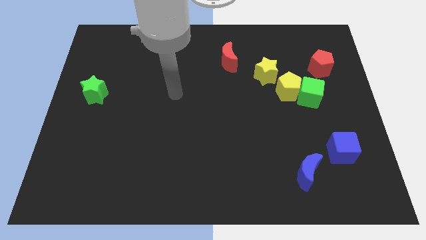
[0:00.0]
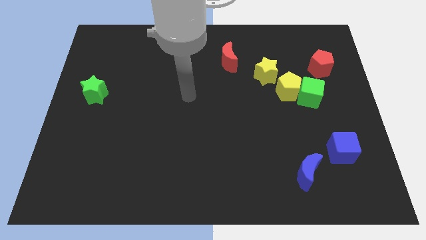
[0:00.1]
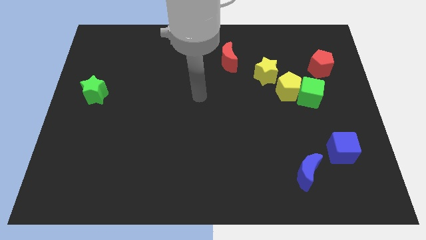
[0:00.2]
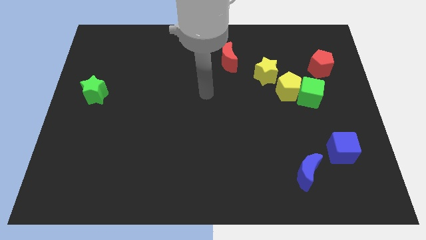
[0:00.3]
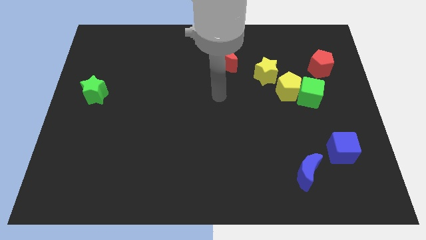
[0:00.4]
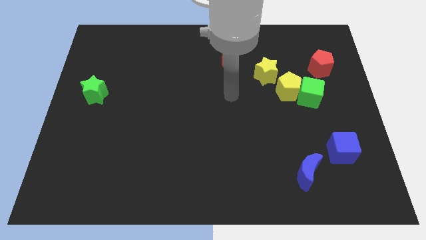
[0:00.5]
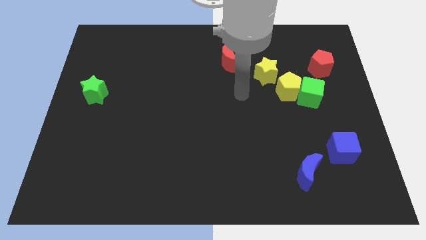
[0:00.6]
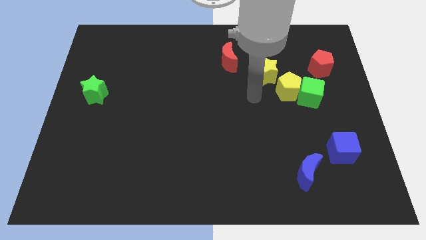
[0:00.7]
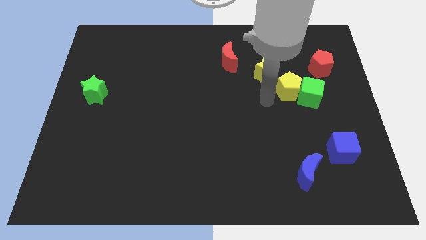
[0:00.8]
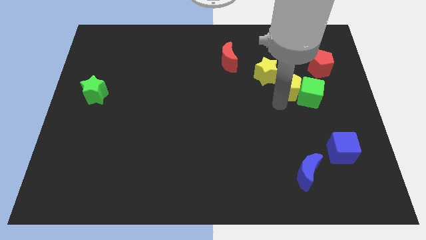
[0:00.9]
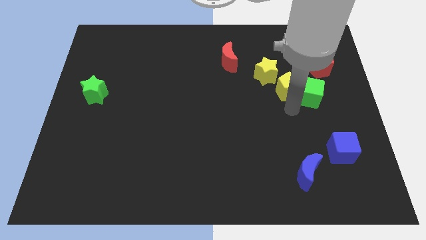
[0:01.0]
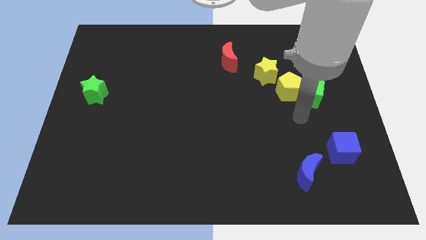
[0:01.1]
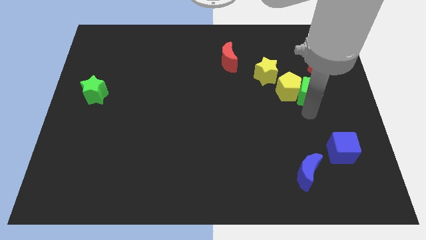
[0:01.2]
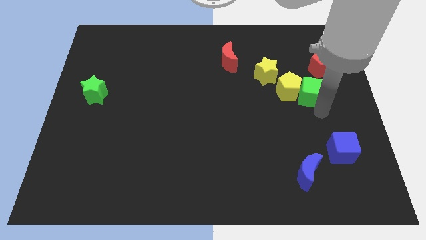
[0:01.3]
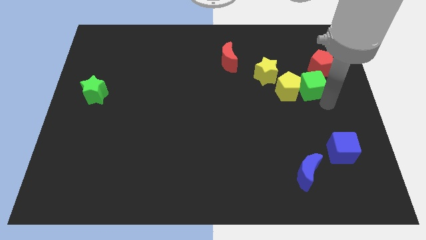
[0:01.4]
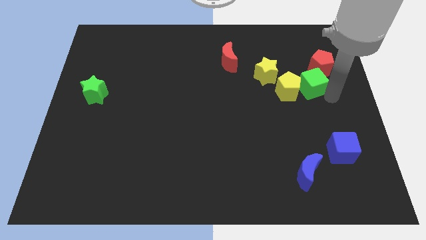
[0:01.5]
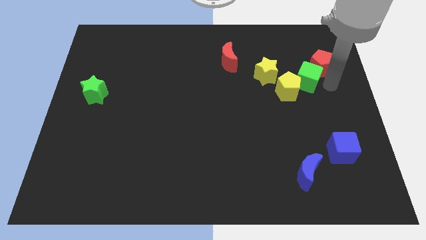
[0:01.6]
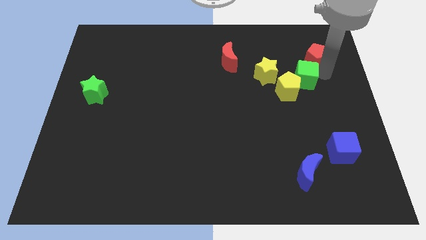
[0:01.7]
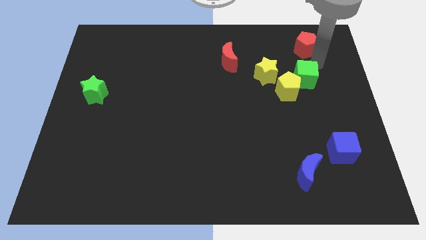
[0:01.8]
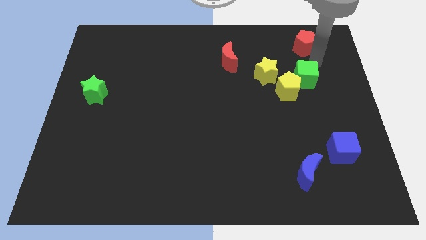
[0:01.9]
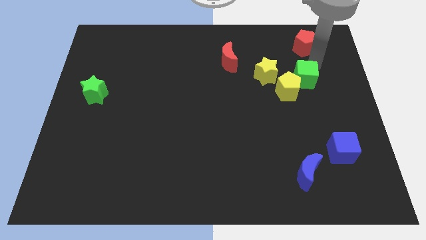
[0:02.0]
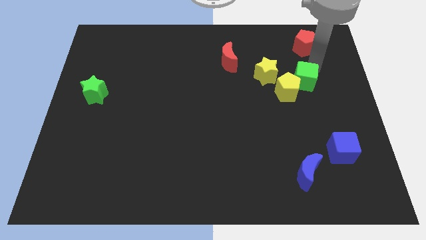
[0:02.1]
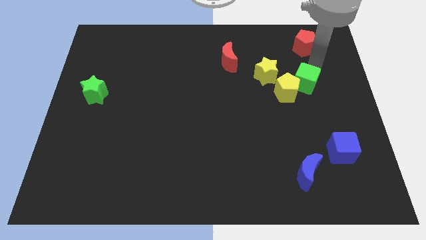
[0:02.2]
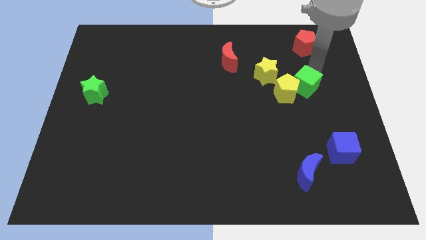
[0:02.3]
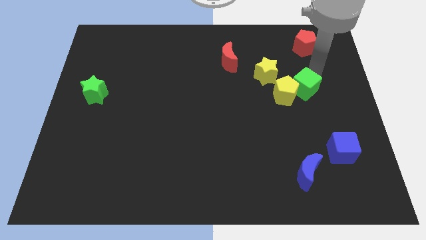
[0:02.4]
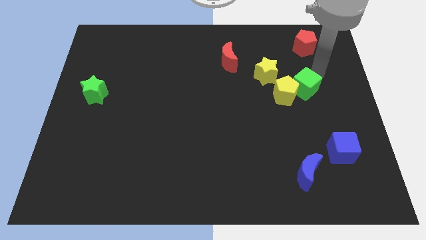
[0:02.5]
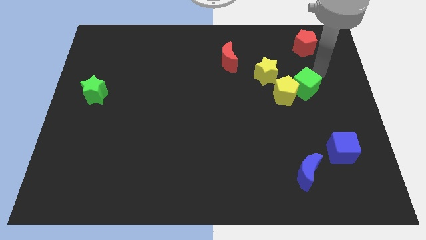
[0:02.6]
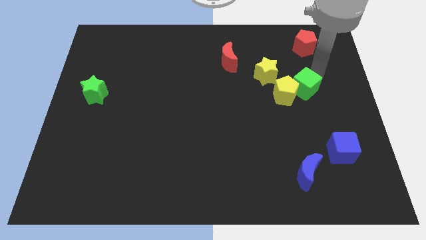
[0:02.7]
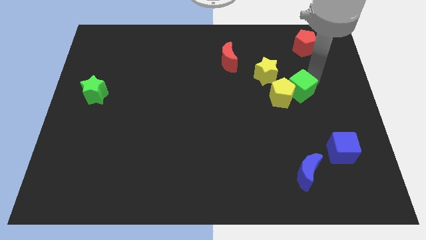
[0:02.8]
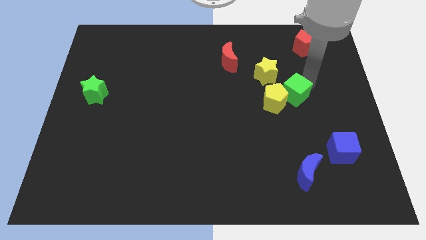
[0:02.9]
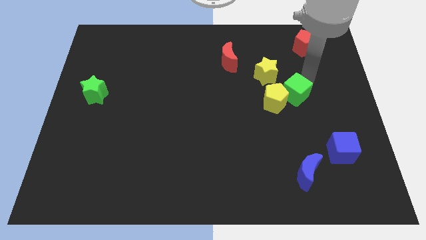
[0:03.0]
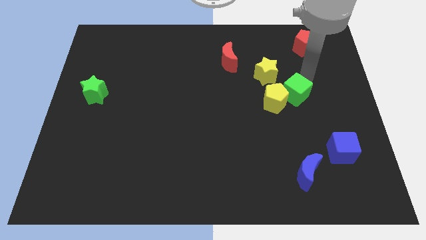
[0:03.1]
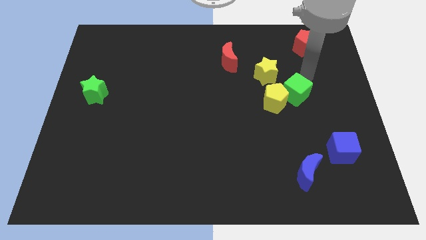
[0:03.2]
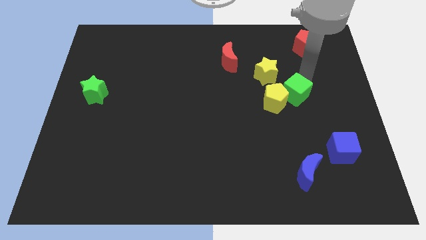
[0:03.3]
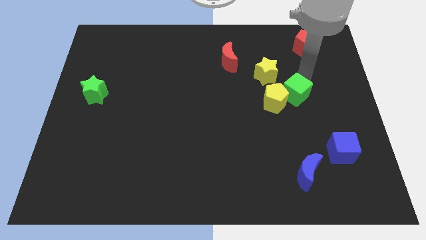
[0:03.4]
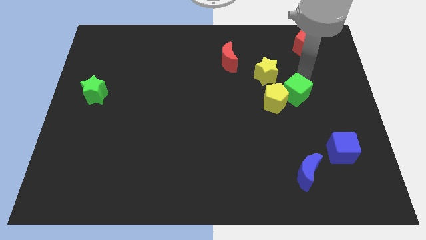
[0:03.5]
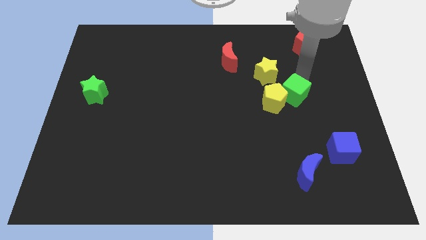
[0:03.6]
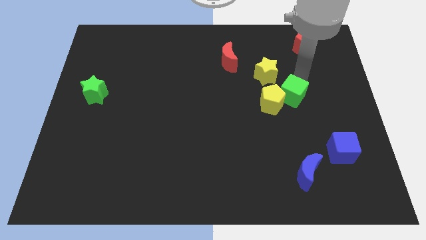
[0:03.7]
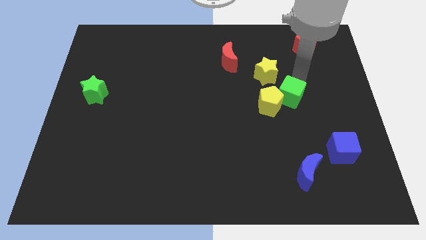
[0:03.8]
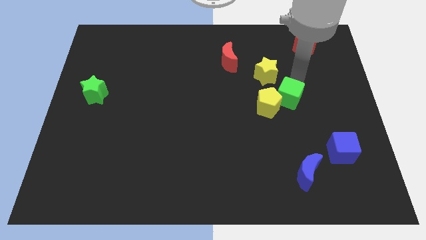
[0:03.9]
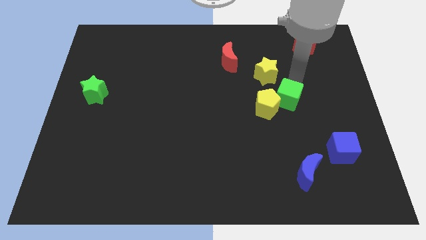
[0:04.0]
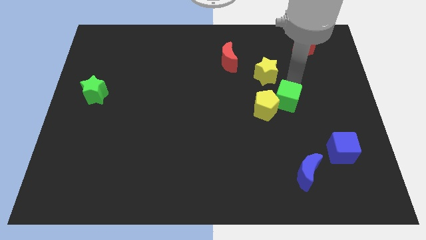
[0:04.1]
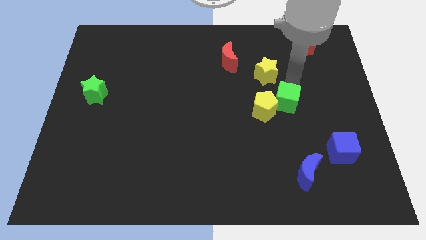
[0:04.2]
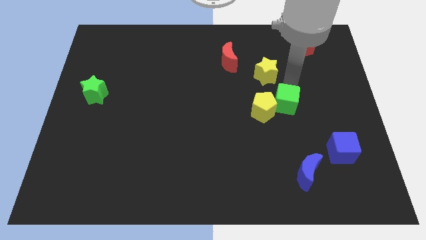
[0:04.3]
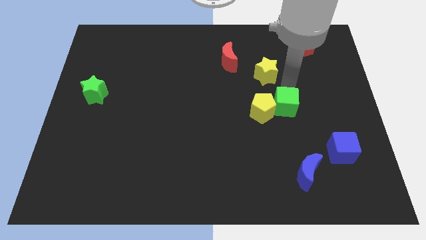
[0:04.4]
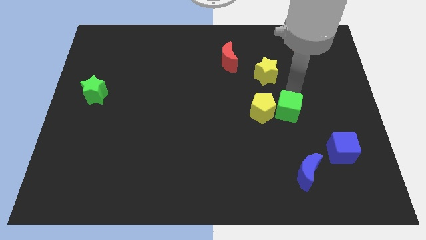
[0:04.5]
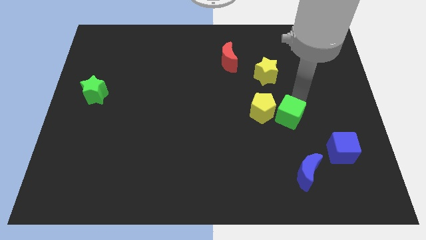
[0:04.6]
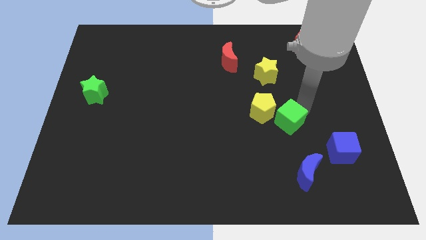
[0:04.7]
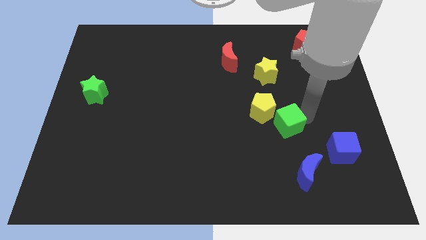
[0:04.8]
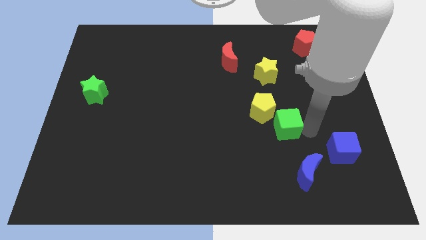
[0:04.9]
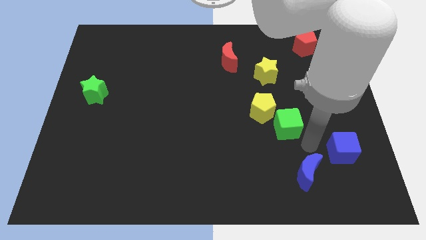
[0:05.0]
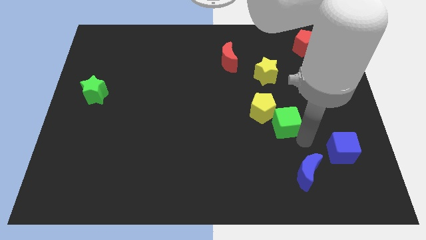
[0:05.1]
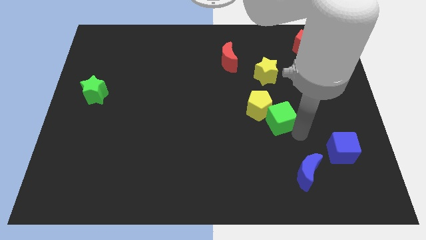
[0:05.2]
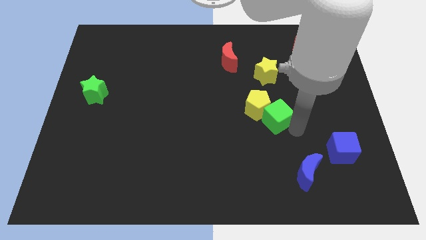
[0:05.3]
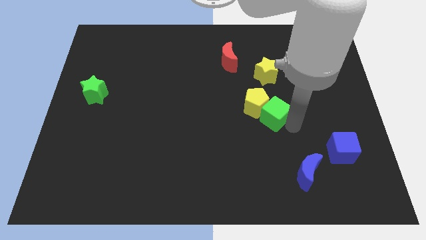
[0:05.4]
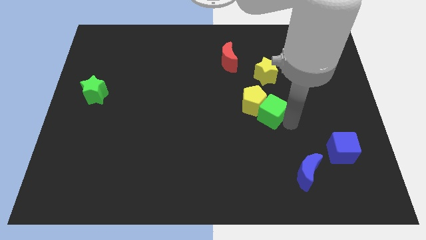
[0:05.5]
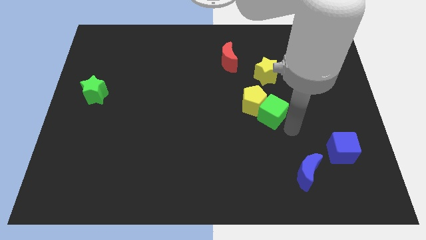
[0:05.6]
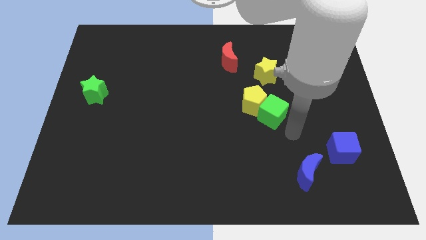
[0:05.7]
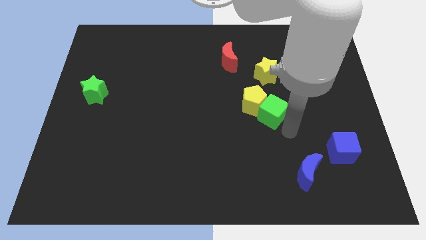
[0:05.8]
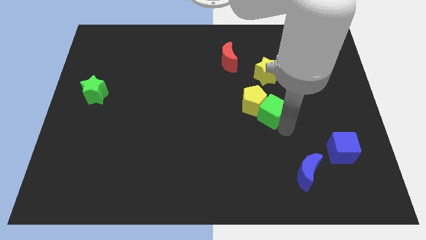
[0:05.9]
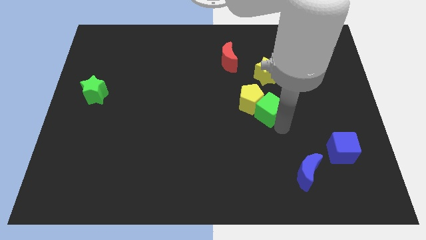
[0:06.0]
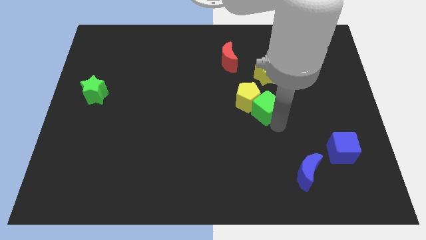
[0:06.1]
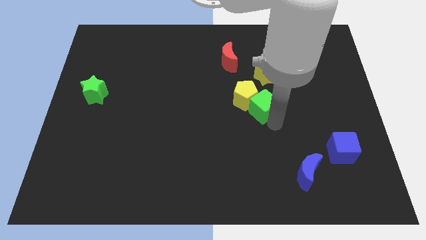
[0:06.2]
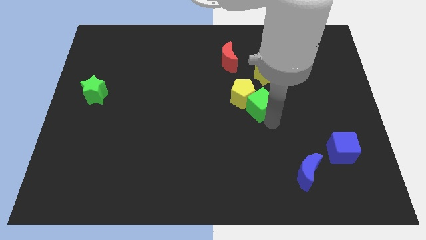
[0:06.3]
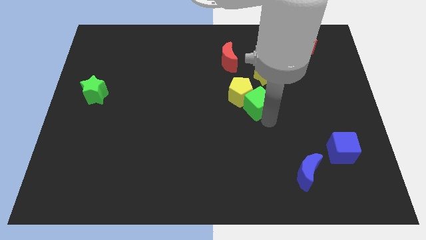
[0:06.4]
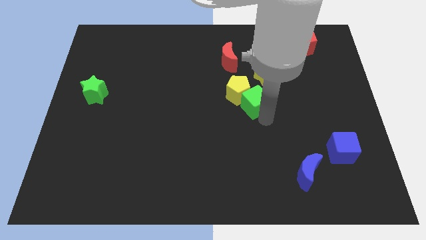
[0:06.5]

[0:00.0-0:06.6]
move the green cube diagonally down and to the left of the yellow star

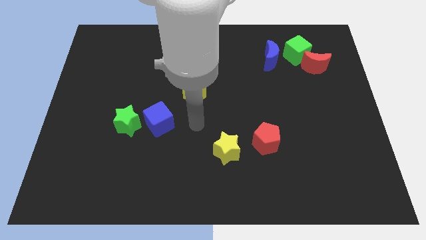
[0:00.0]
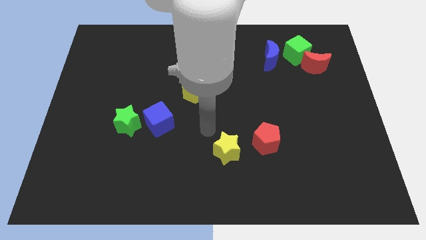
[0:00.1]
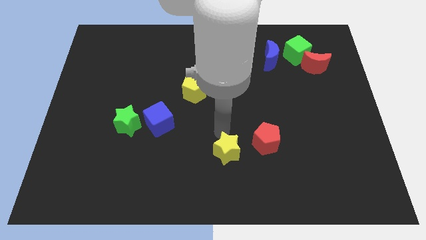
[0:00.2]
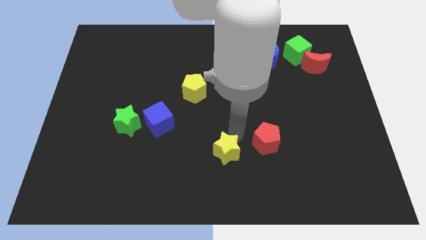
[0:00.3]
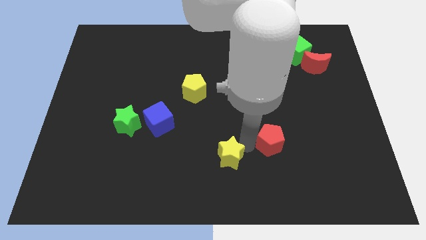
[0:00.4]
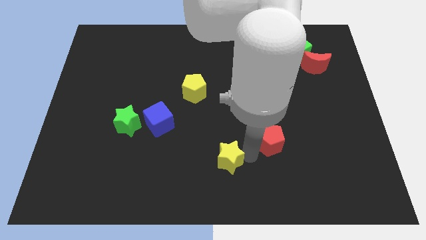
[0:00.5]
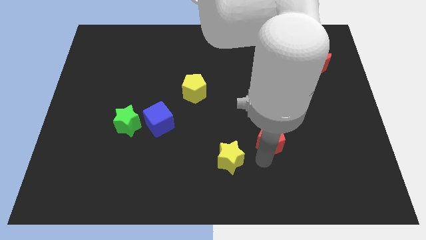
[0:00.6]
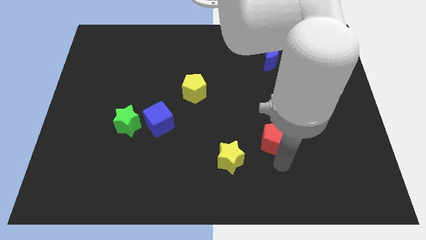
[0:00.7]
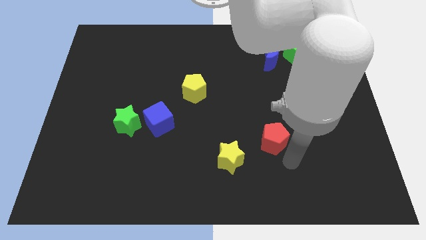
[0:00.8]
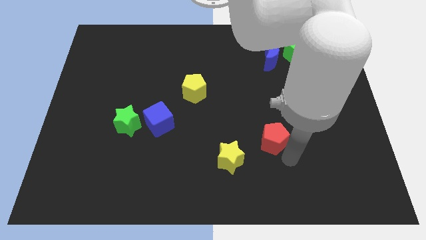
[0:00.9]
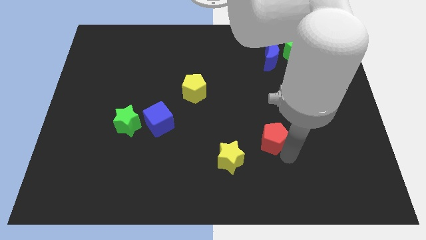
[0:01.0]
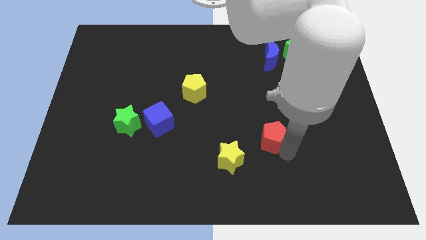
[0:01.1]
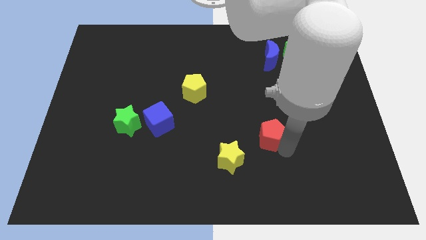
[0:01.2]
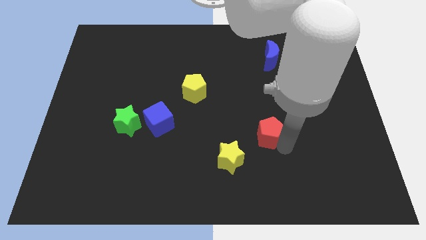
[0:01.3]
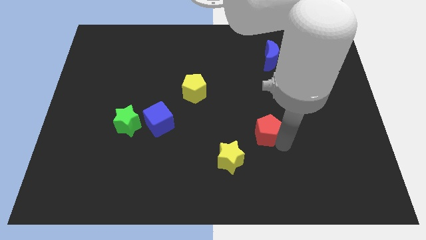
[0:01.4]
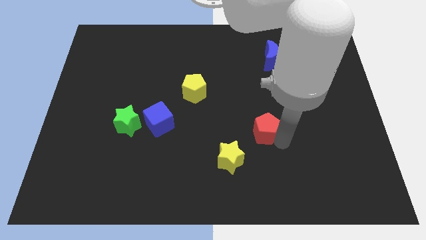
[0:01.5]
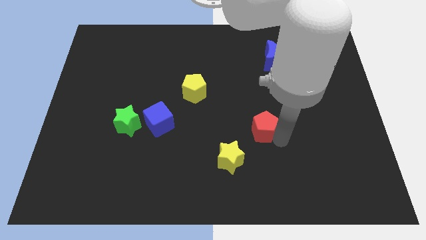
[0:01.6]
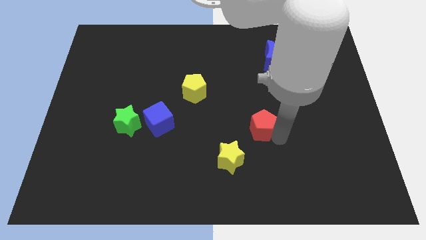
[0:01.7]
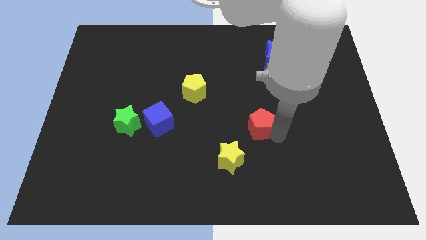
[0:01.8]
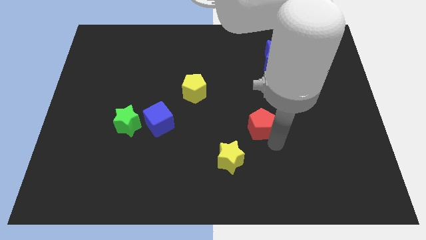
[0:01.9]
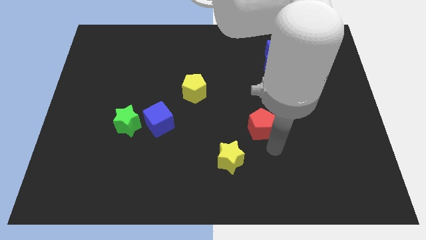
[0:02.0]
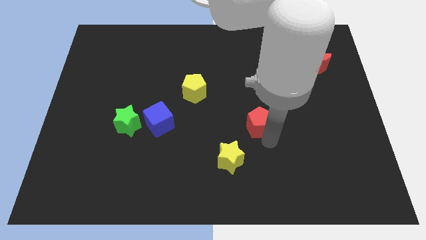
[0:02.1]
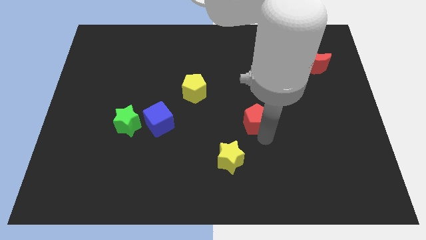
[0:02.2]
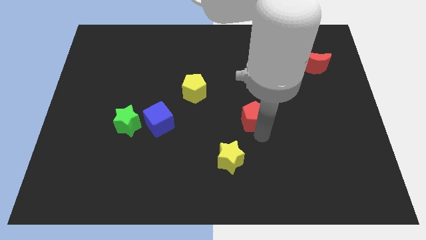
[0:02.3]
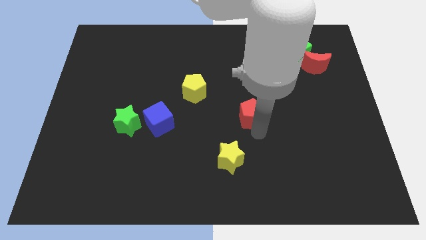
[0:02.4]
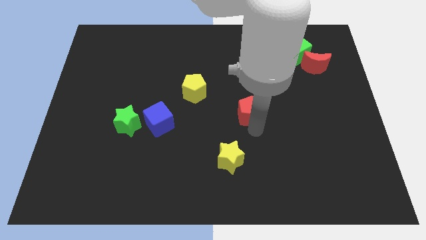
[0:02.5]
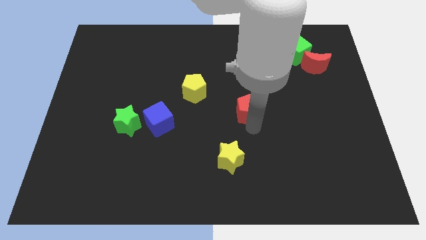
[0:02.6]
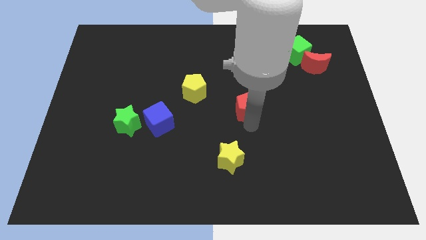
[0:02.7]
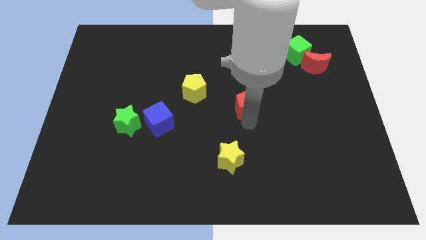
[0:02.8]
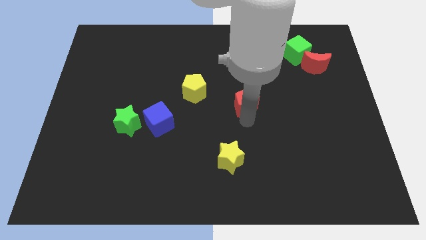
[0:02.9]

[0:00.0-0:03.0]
slide the red pentagon to the right side of the yellow pentagon
